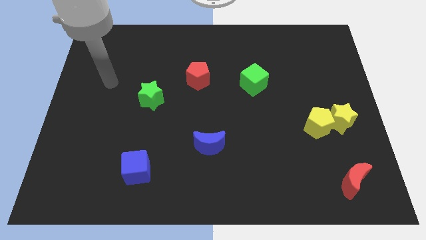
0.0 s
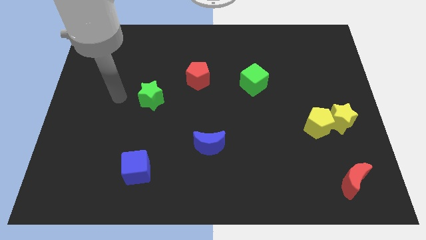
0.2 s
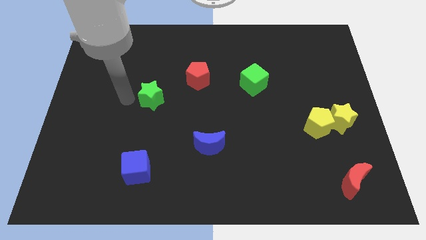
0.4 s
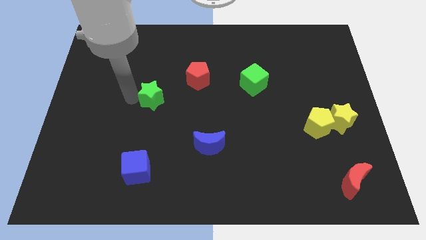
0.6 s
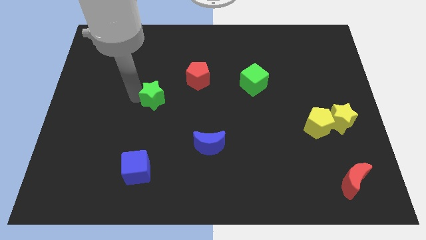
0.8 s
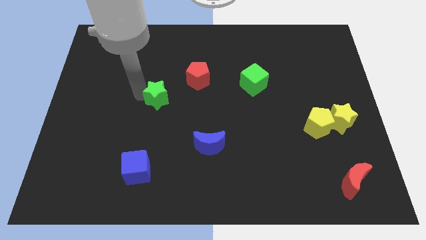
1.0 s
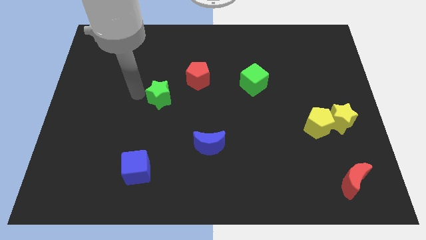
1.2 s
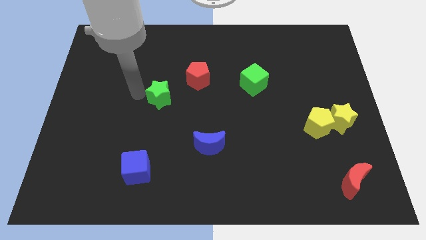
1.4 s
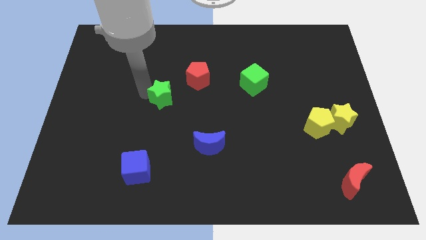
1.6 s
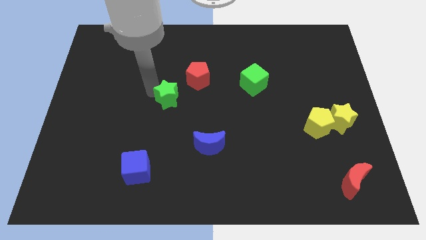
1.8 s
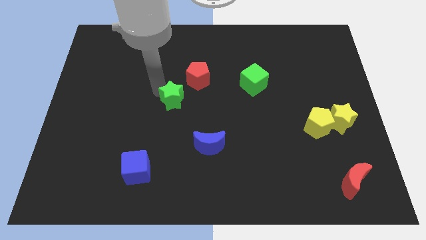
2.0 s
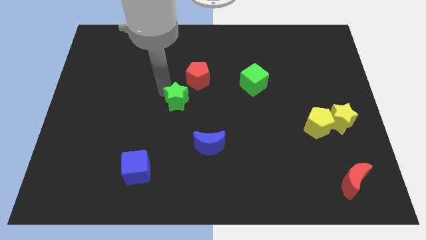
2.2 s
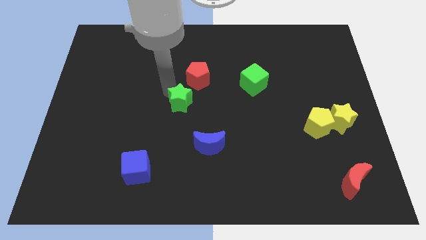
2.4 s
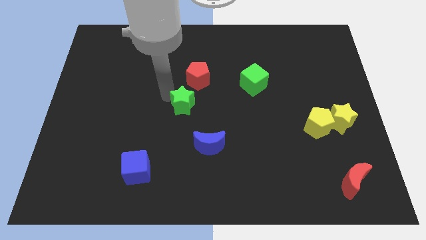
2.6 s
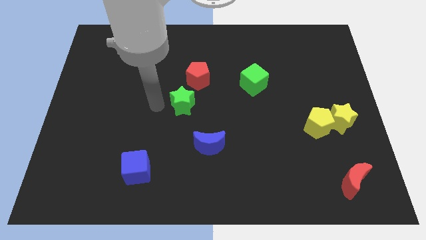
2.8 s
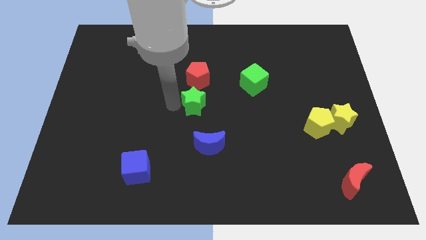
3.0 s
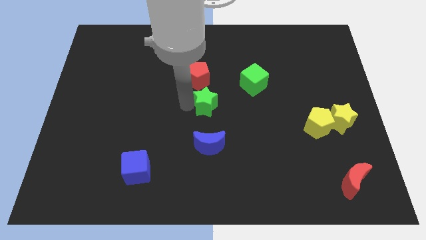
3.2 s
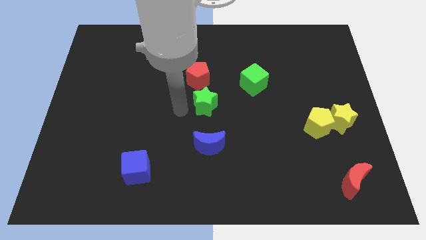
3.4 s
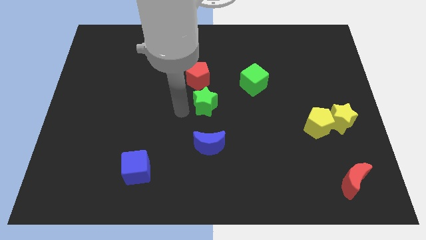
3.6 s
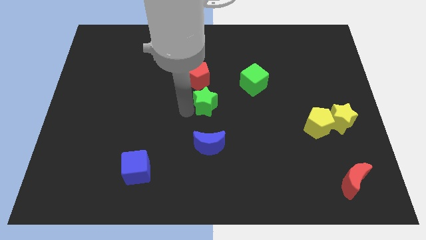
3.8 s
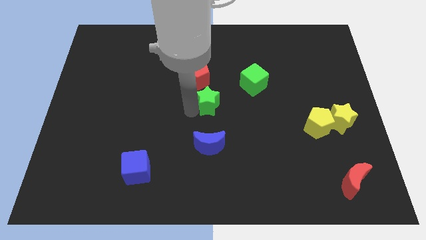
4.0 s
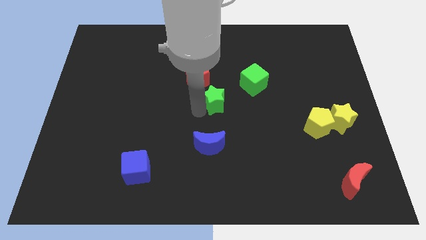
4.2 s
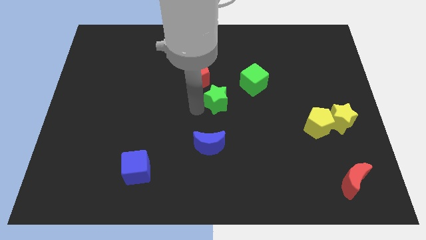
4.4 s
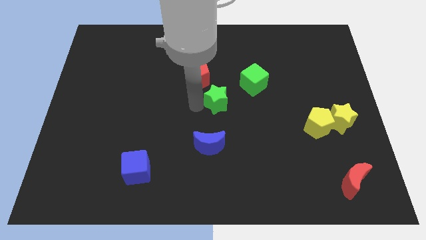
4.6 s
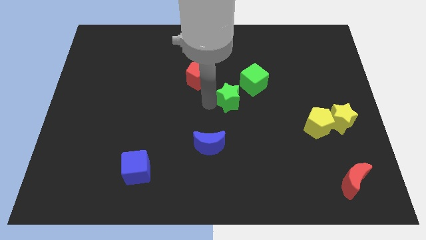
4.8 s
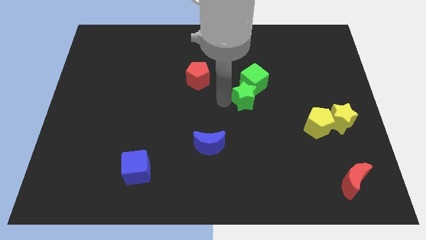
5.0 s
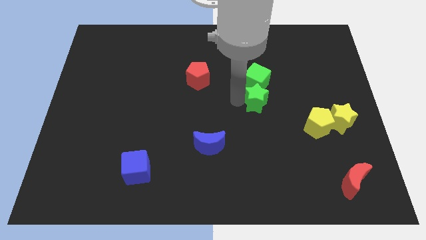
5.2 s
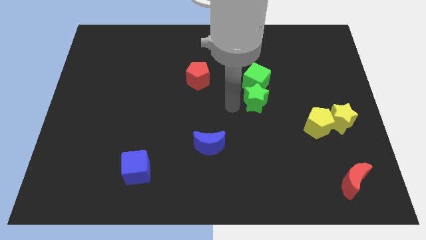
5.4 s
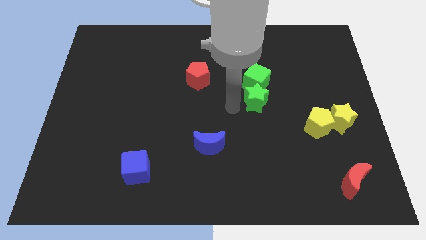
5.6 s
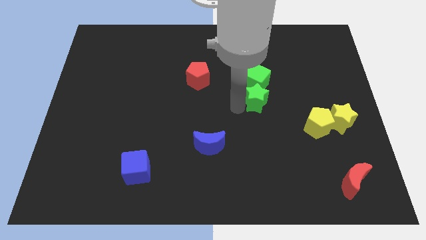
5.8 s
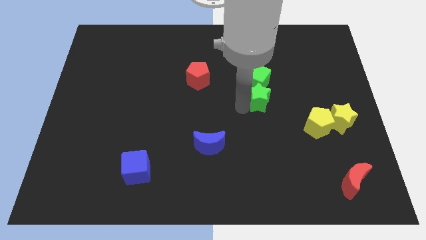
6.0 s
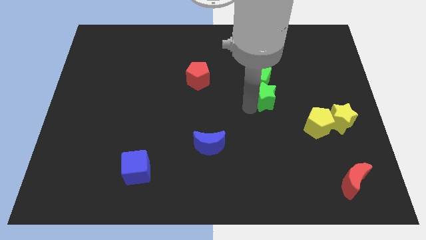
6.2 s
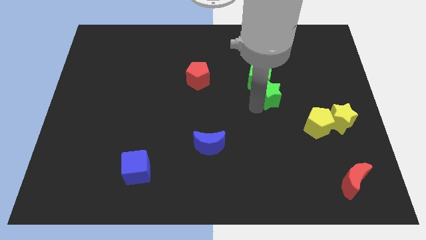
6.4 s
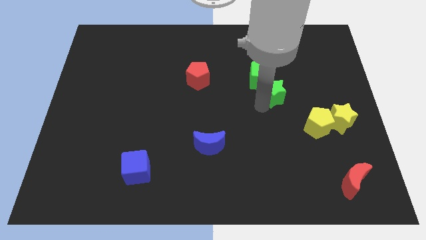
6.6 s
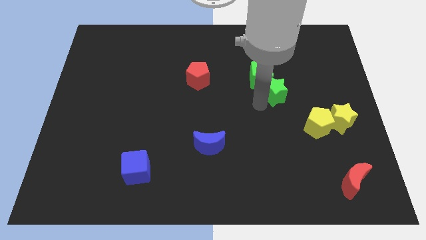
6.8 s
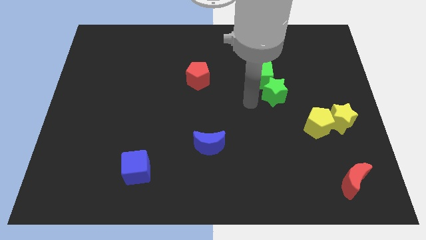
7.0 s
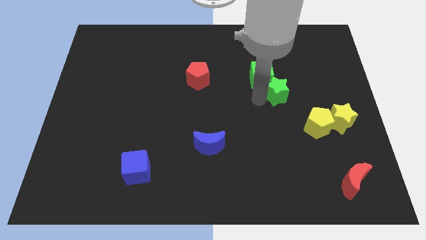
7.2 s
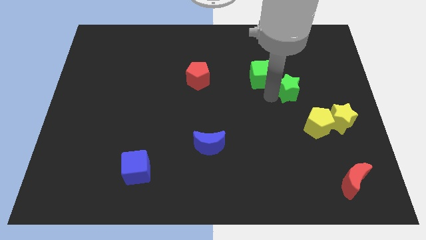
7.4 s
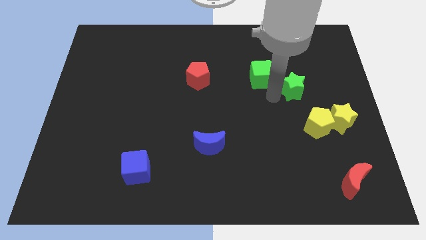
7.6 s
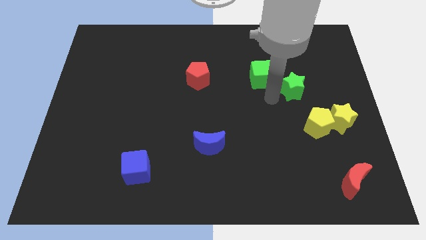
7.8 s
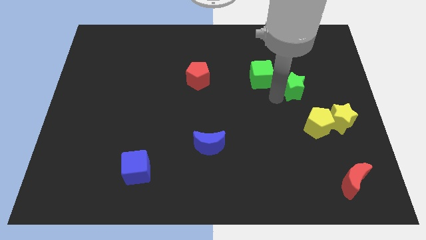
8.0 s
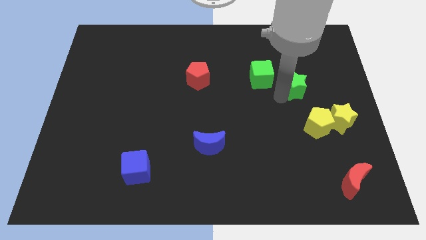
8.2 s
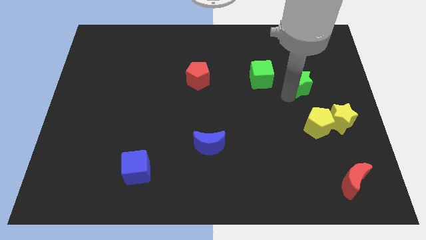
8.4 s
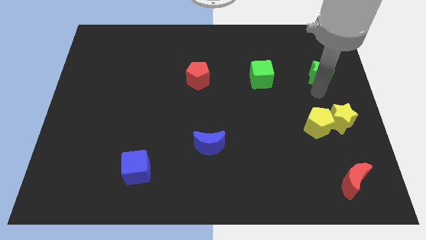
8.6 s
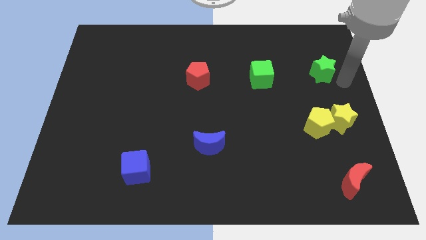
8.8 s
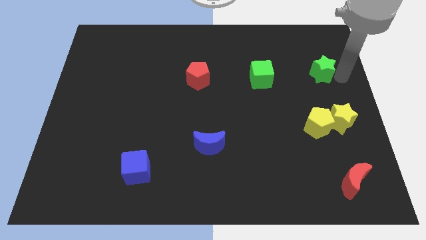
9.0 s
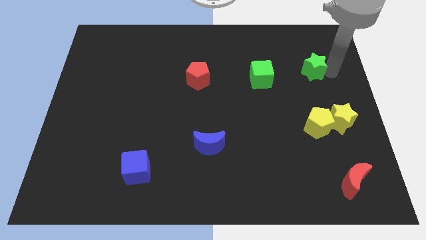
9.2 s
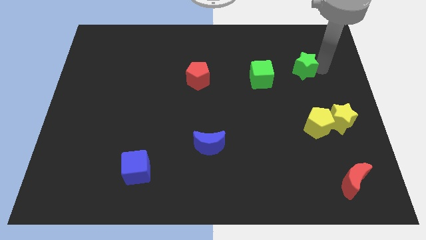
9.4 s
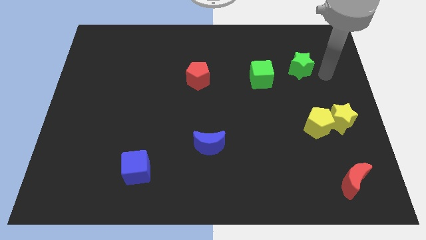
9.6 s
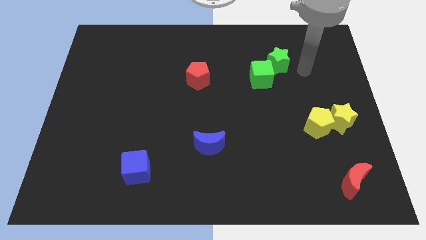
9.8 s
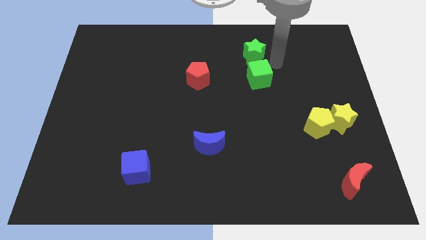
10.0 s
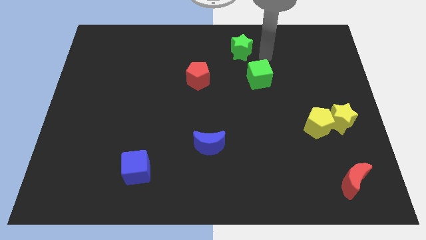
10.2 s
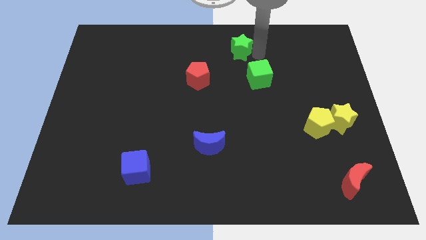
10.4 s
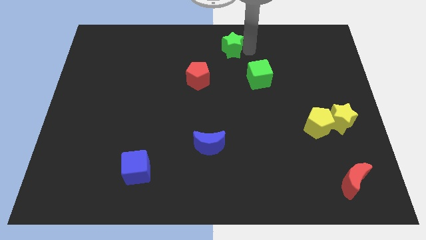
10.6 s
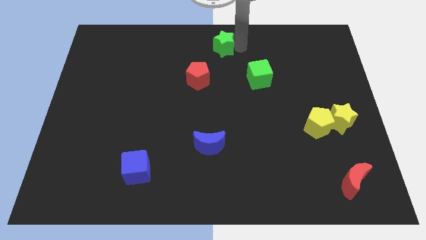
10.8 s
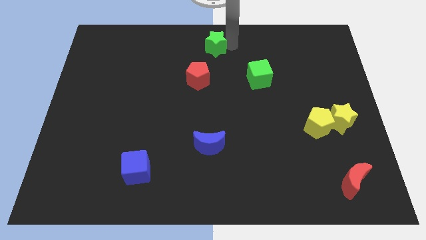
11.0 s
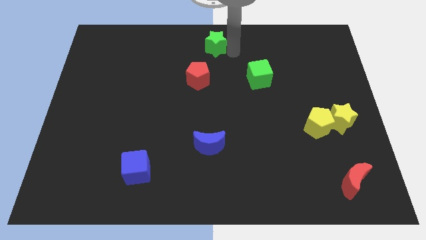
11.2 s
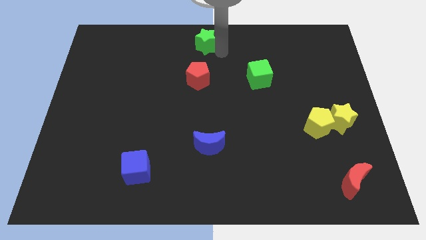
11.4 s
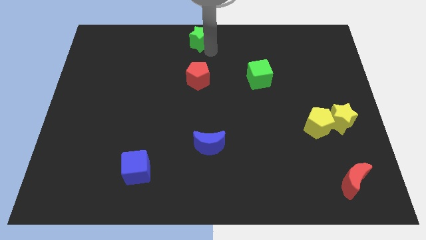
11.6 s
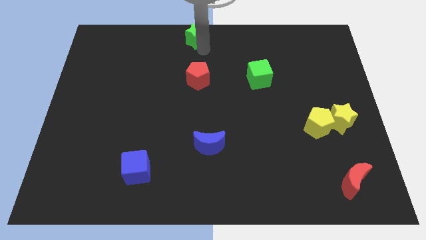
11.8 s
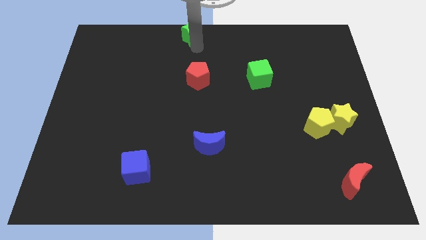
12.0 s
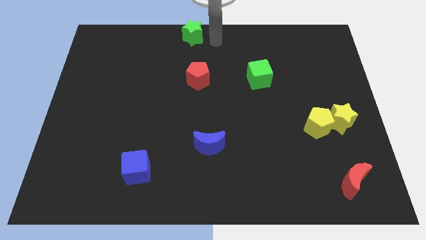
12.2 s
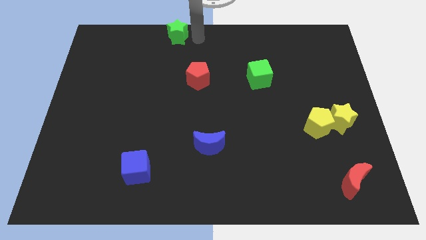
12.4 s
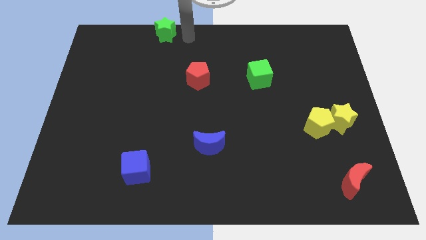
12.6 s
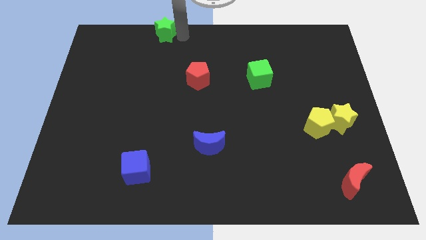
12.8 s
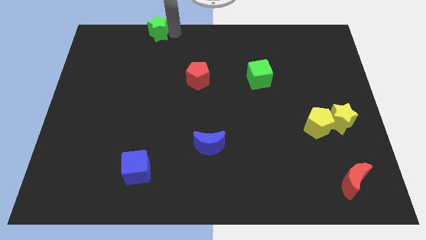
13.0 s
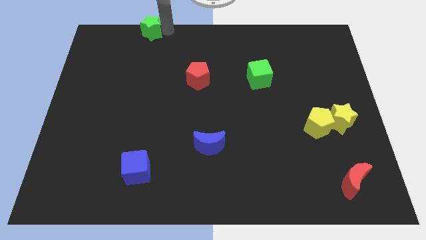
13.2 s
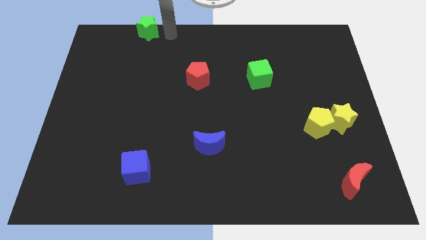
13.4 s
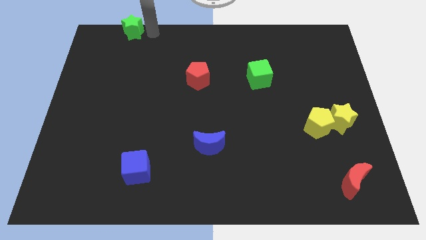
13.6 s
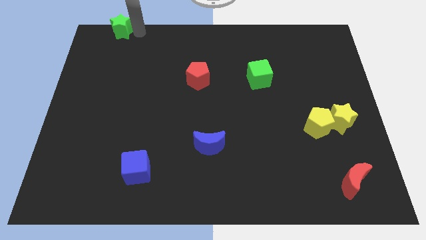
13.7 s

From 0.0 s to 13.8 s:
slide the green star to the top left corner

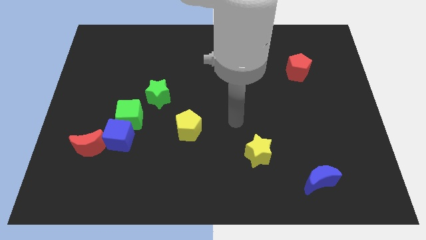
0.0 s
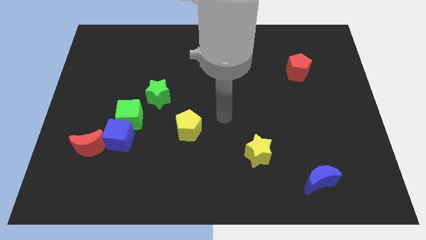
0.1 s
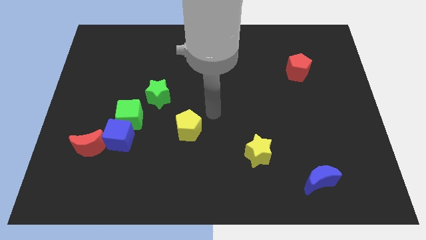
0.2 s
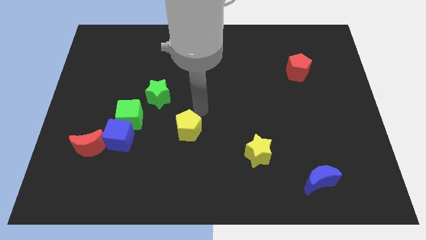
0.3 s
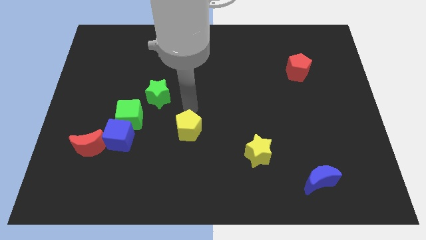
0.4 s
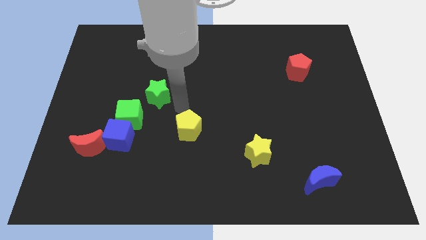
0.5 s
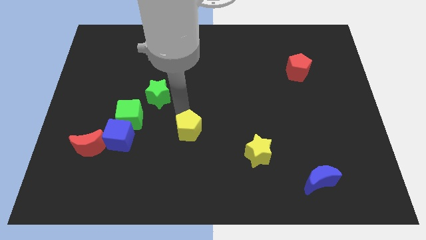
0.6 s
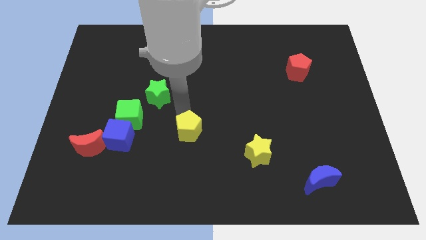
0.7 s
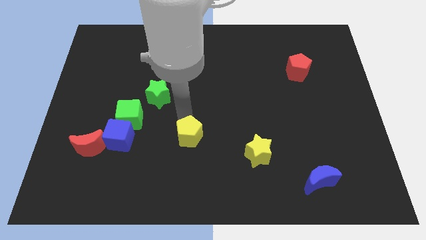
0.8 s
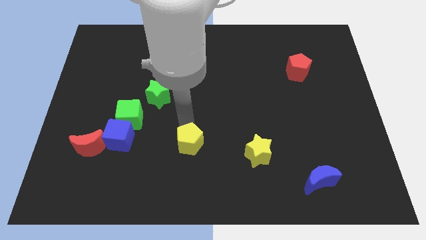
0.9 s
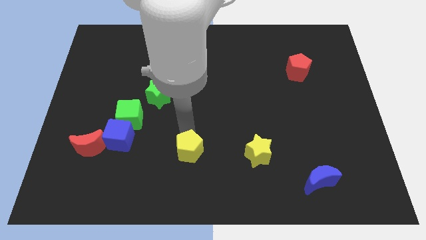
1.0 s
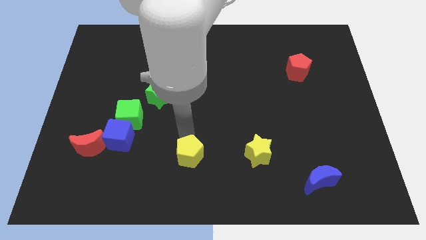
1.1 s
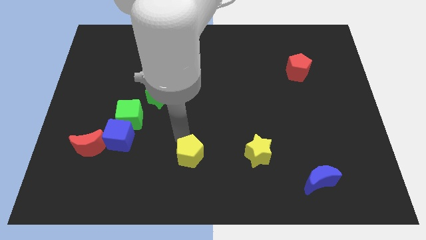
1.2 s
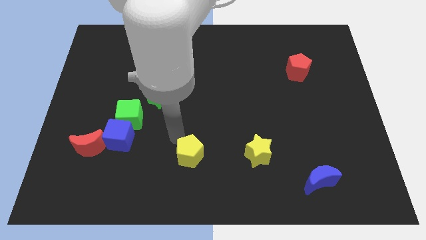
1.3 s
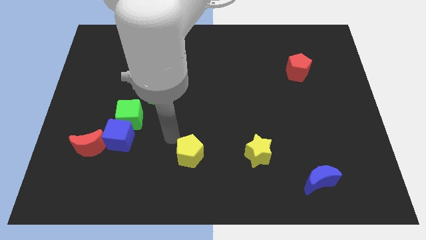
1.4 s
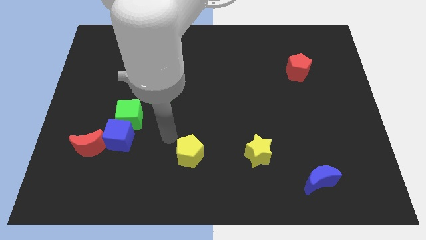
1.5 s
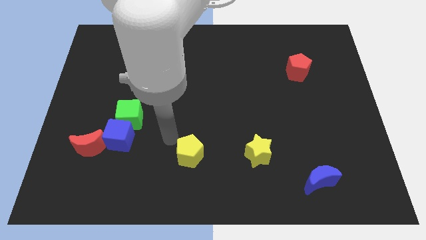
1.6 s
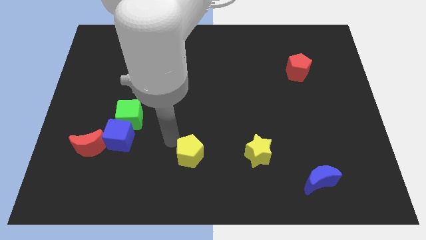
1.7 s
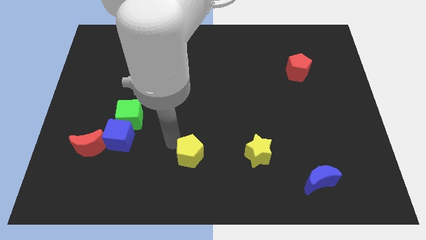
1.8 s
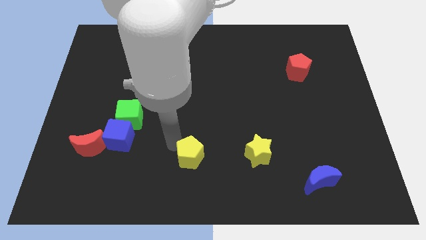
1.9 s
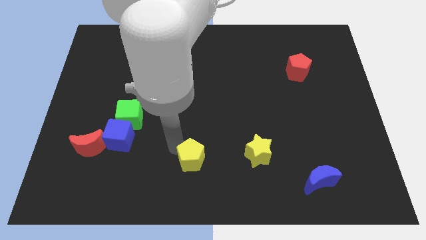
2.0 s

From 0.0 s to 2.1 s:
put the yellow pentagon to the bottom side
